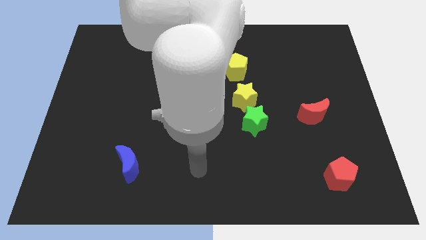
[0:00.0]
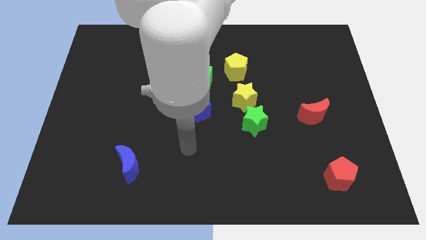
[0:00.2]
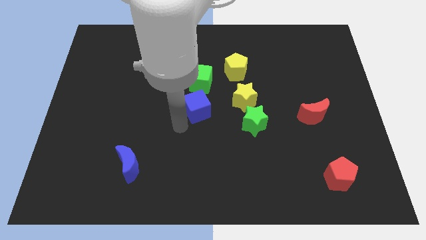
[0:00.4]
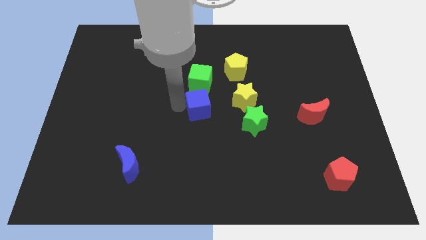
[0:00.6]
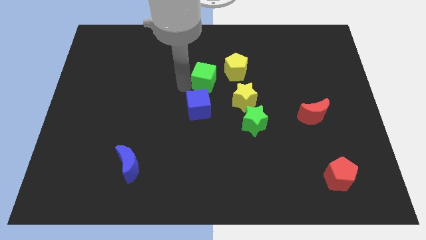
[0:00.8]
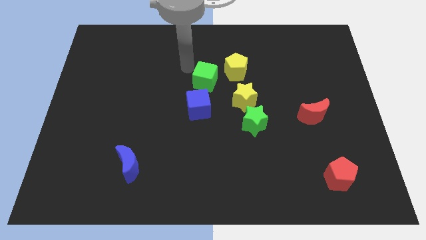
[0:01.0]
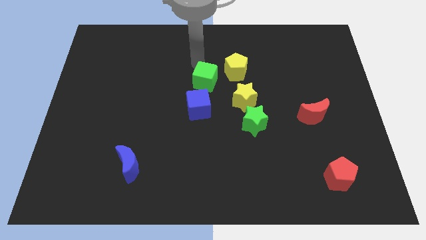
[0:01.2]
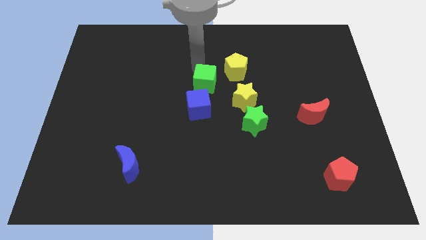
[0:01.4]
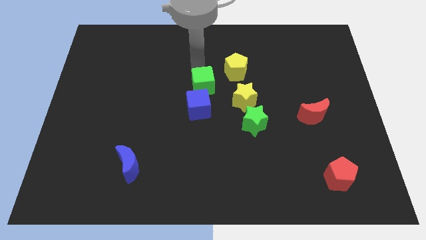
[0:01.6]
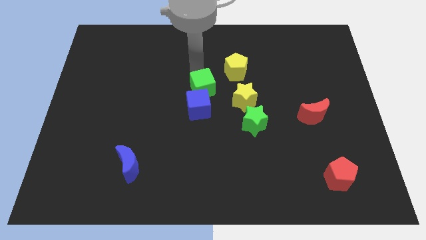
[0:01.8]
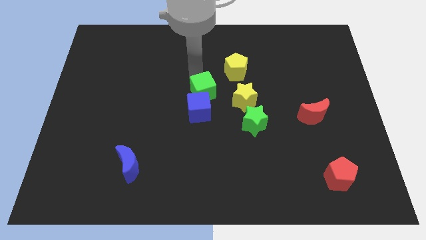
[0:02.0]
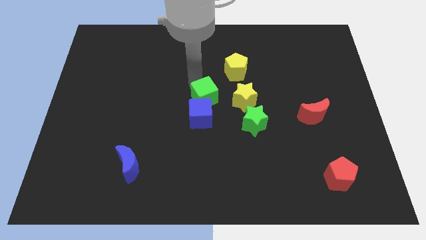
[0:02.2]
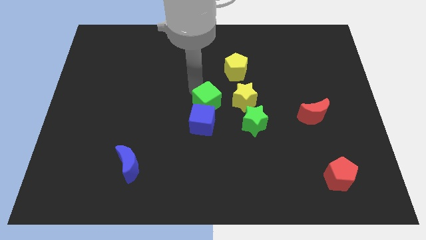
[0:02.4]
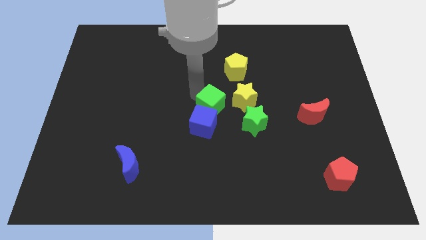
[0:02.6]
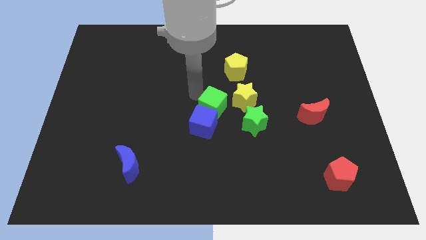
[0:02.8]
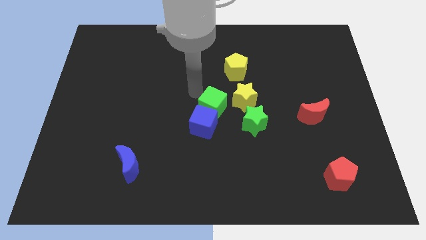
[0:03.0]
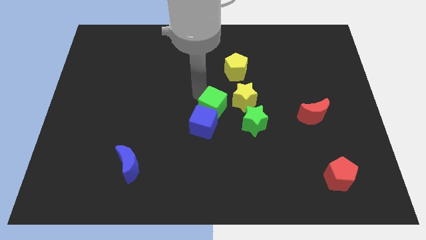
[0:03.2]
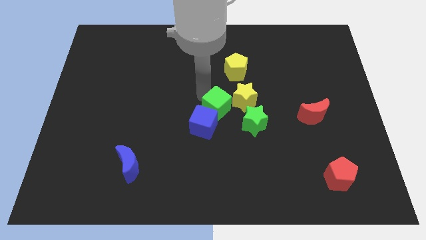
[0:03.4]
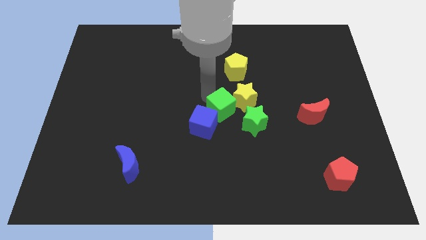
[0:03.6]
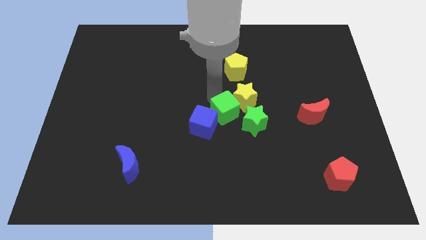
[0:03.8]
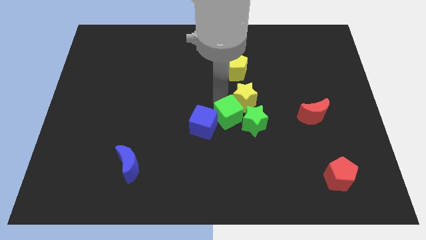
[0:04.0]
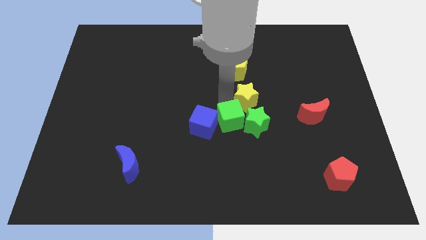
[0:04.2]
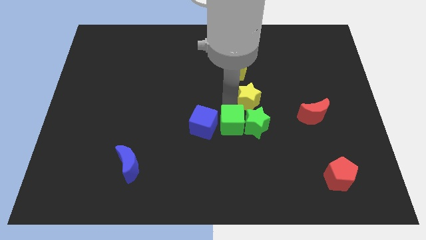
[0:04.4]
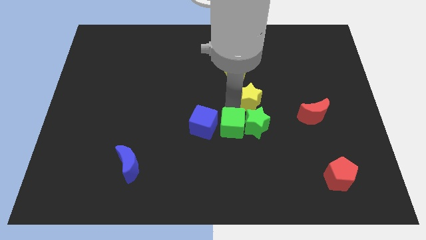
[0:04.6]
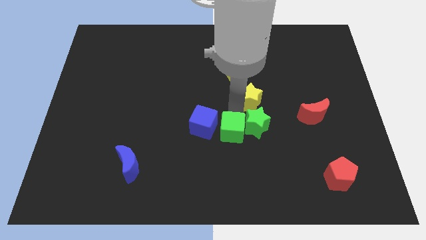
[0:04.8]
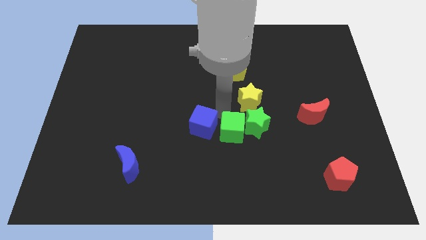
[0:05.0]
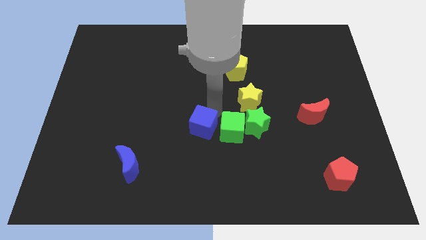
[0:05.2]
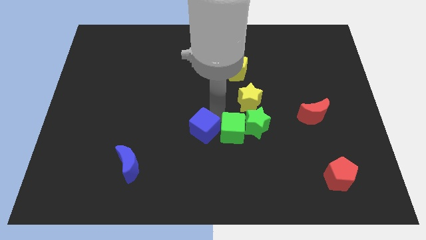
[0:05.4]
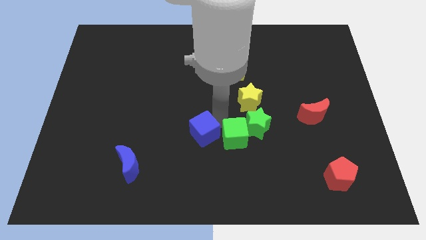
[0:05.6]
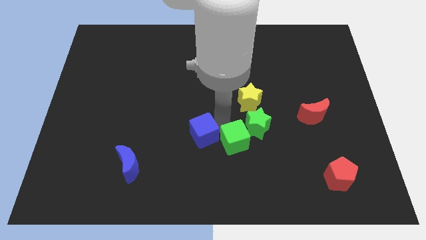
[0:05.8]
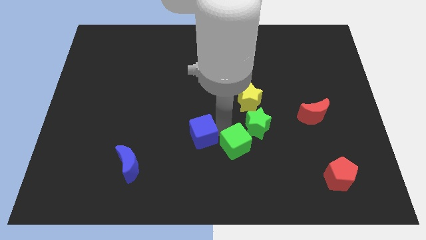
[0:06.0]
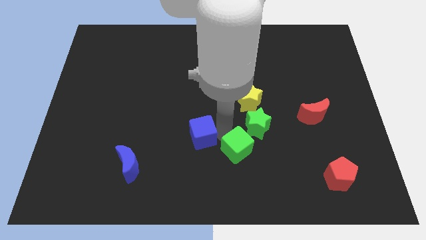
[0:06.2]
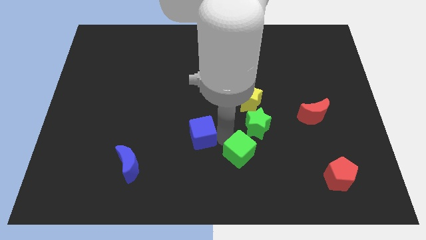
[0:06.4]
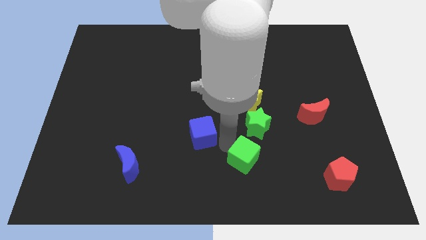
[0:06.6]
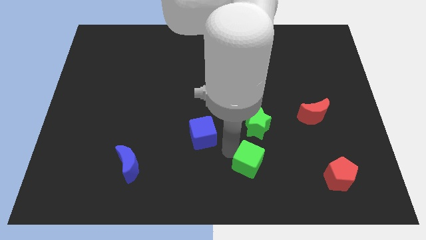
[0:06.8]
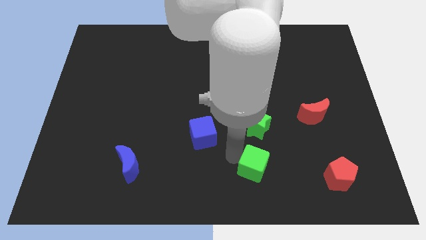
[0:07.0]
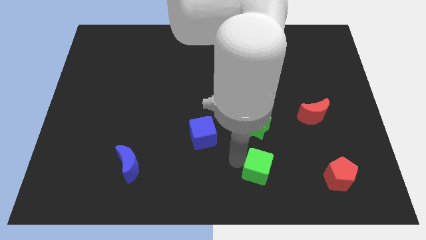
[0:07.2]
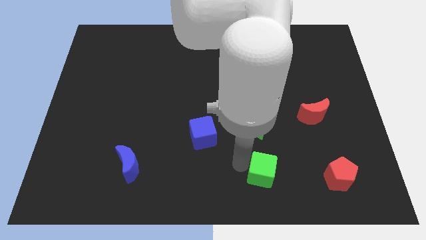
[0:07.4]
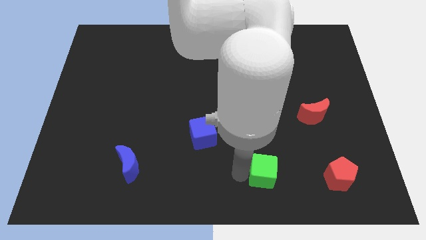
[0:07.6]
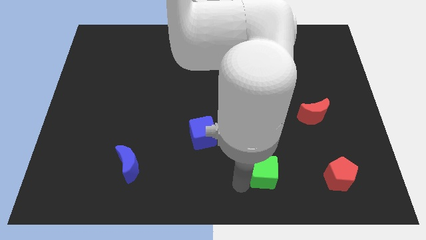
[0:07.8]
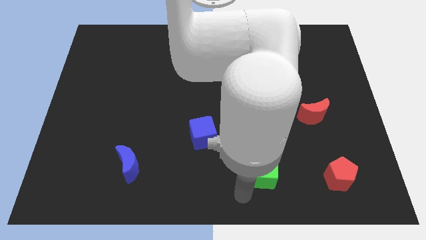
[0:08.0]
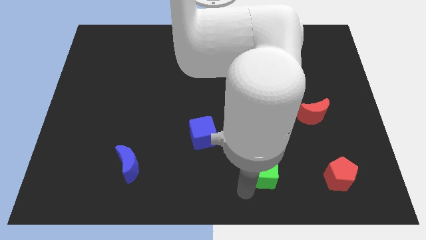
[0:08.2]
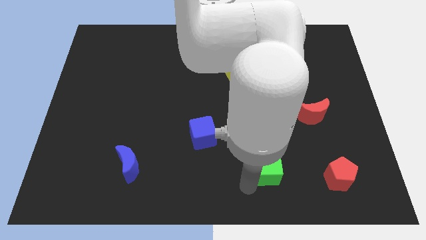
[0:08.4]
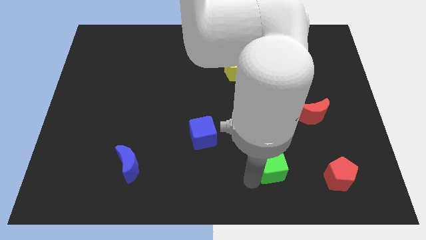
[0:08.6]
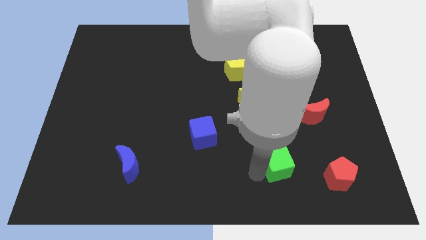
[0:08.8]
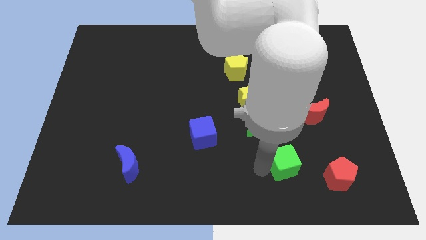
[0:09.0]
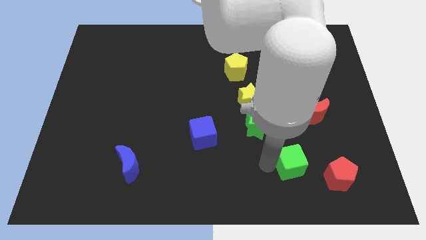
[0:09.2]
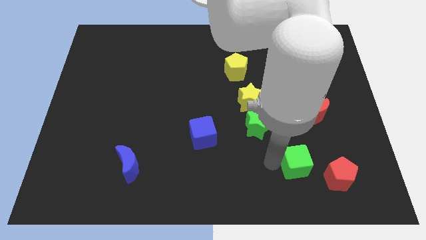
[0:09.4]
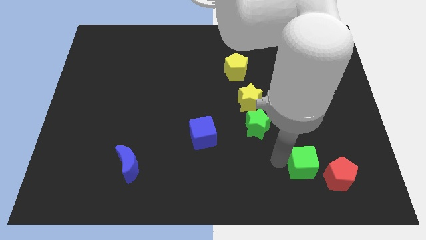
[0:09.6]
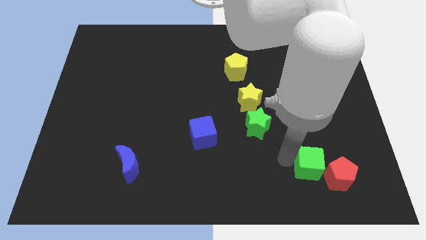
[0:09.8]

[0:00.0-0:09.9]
slide the green cube next to the red pentagon

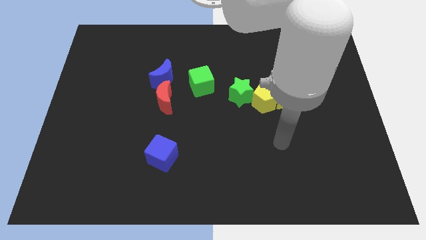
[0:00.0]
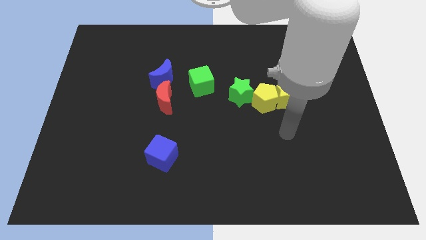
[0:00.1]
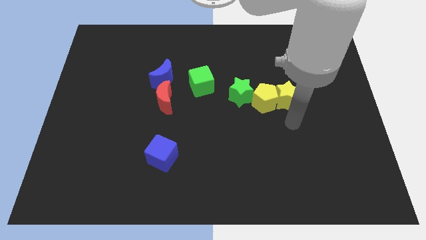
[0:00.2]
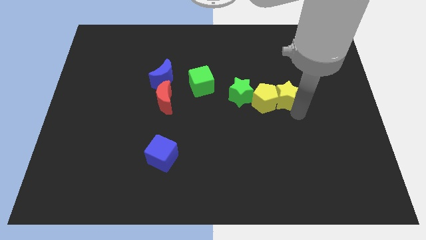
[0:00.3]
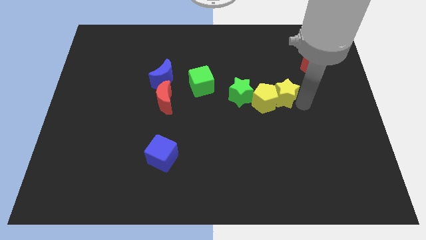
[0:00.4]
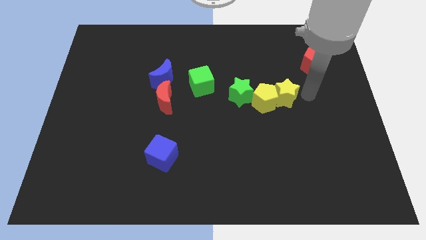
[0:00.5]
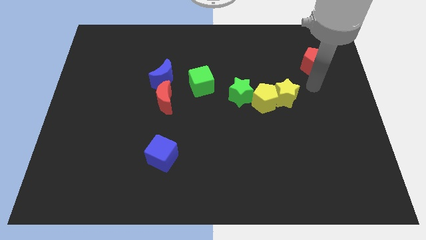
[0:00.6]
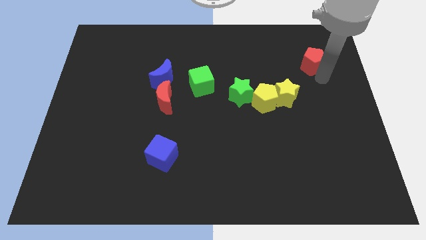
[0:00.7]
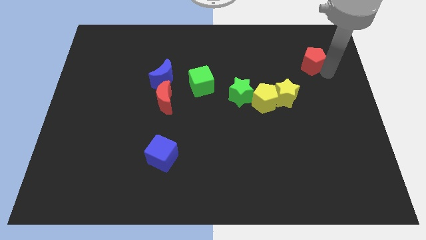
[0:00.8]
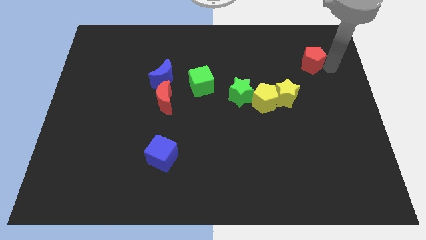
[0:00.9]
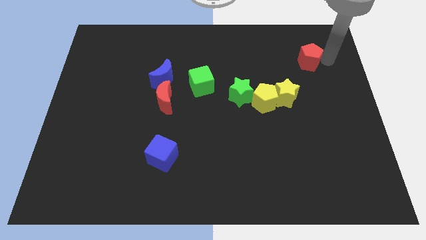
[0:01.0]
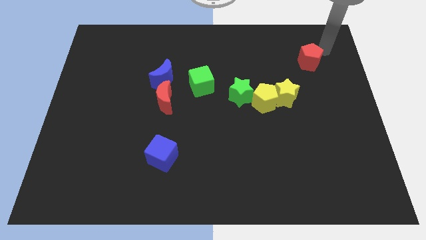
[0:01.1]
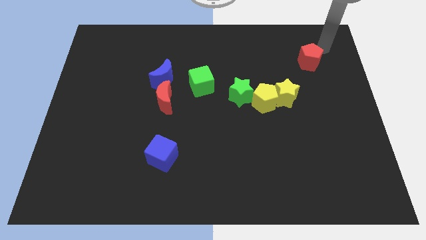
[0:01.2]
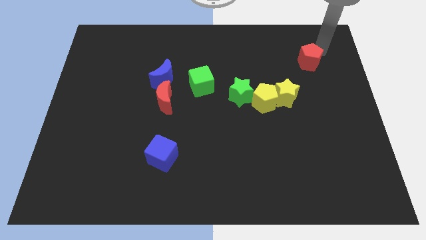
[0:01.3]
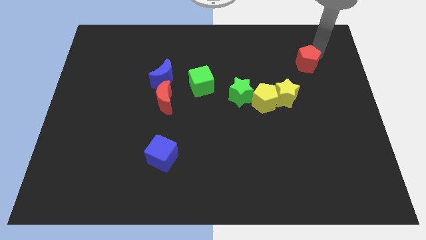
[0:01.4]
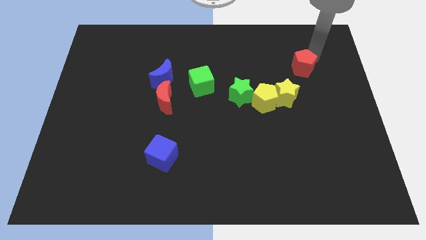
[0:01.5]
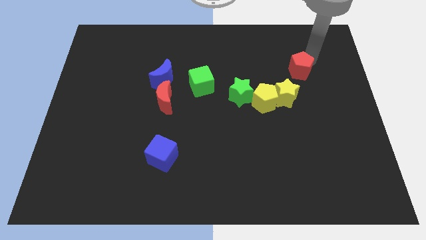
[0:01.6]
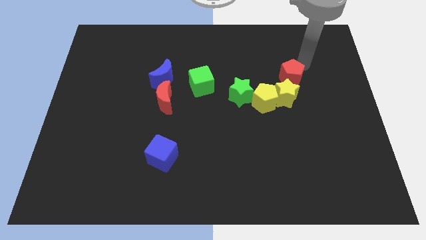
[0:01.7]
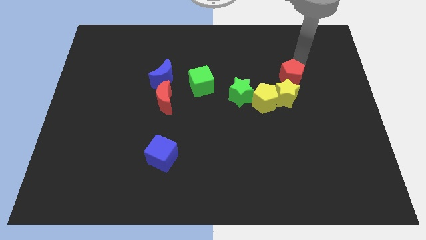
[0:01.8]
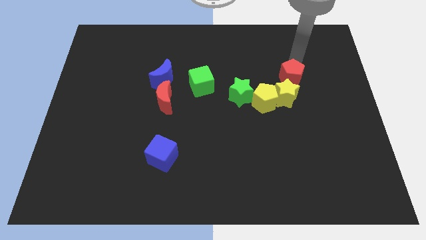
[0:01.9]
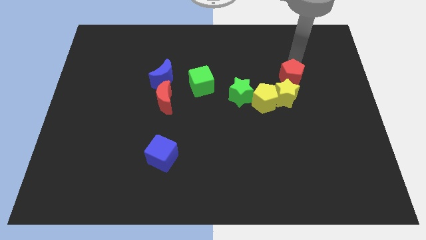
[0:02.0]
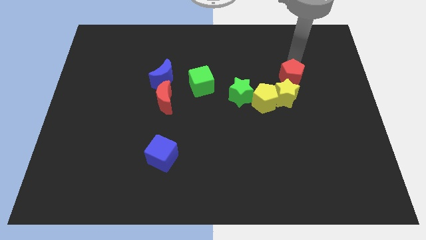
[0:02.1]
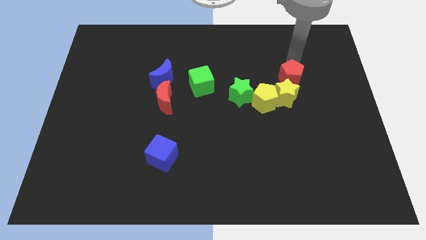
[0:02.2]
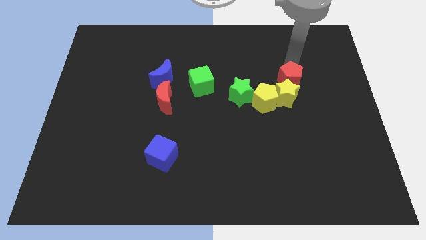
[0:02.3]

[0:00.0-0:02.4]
put the red pentagon close to the yellow star
